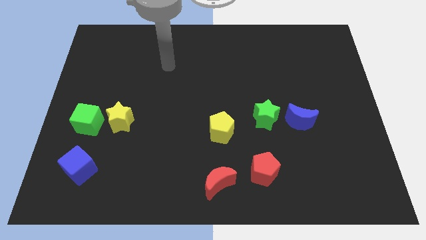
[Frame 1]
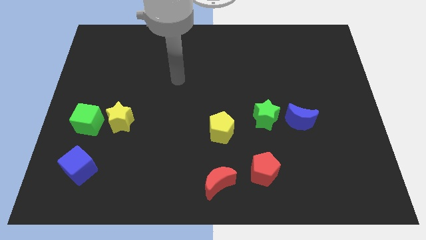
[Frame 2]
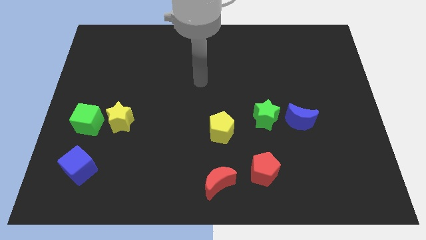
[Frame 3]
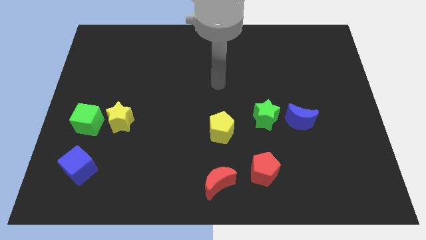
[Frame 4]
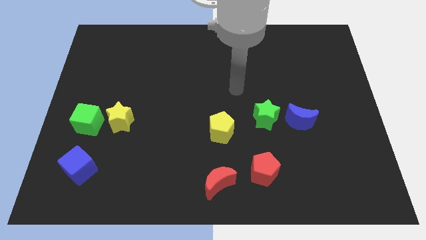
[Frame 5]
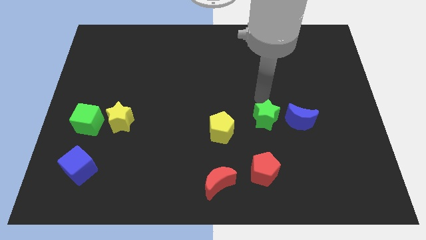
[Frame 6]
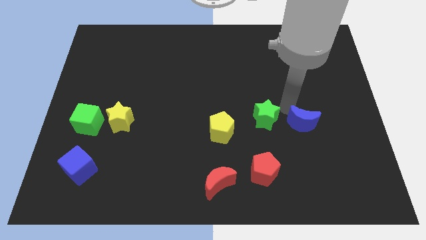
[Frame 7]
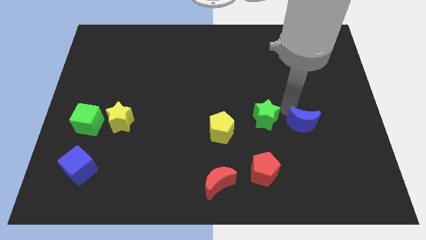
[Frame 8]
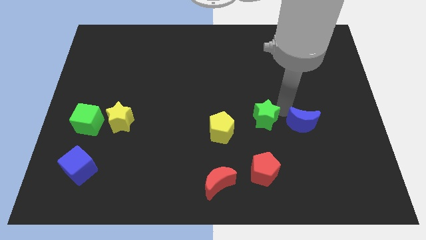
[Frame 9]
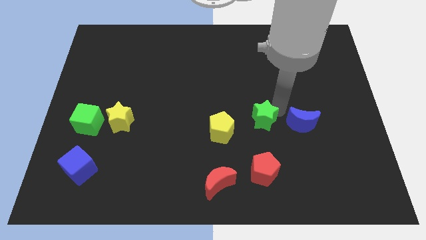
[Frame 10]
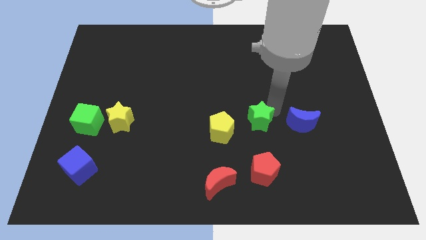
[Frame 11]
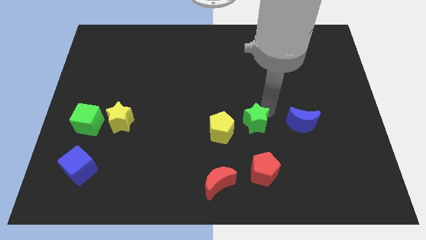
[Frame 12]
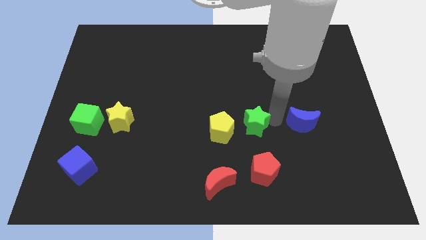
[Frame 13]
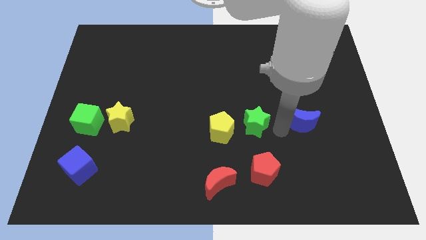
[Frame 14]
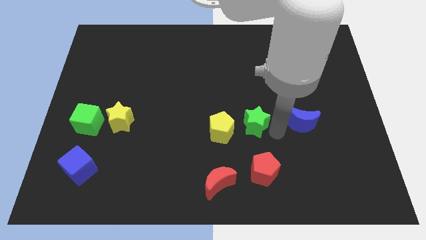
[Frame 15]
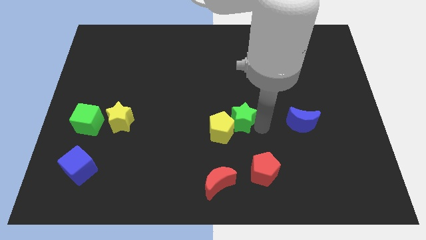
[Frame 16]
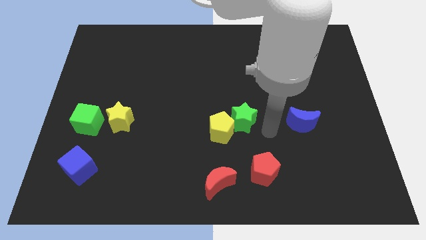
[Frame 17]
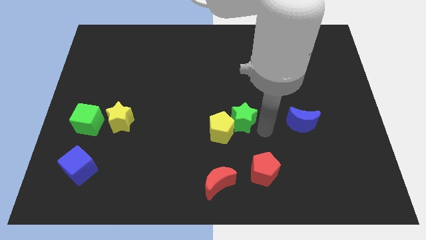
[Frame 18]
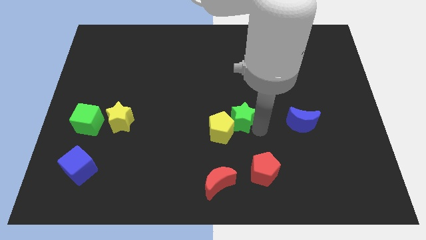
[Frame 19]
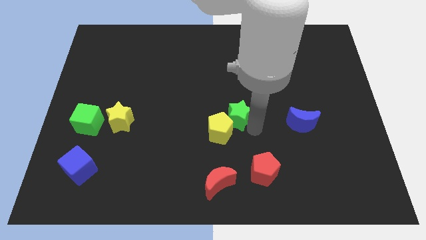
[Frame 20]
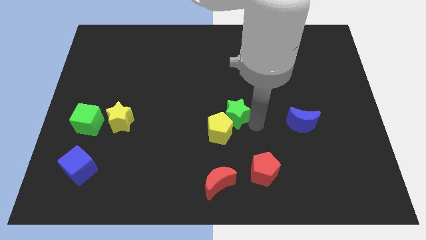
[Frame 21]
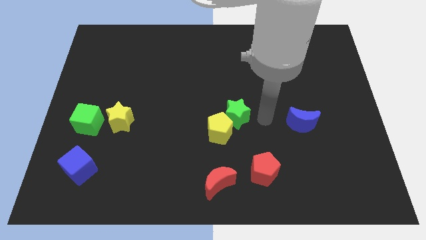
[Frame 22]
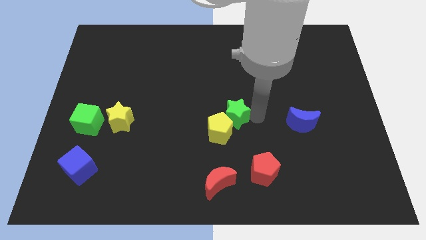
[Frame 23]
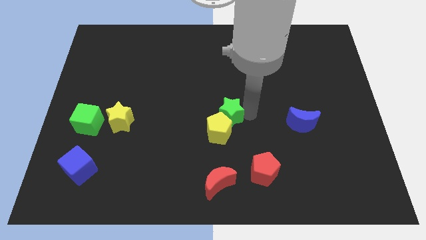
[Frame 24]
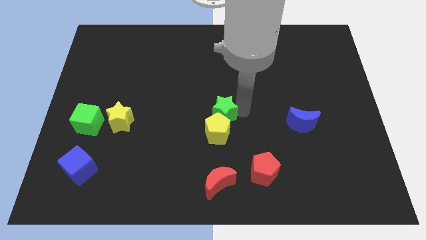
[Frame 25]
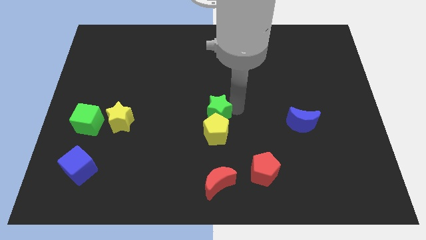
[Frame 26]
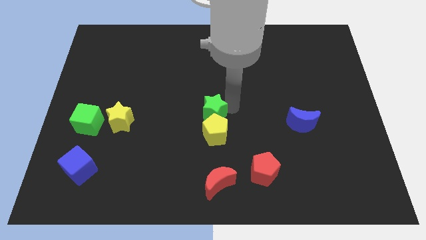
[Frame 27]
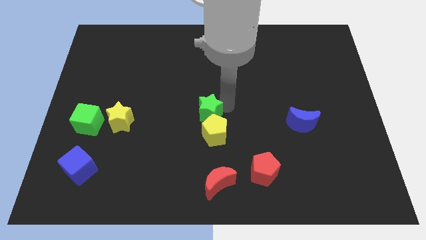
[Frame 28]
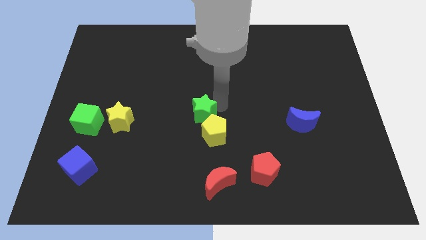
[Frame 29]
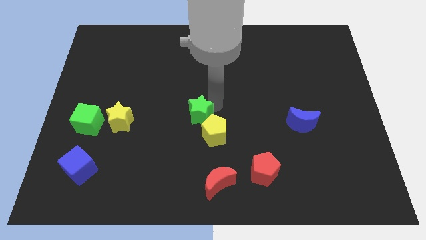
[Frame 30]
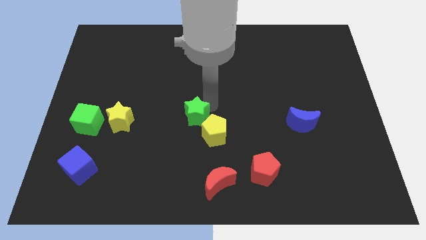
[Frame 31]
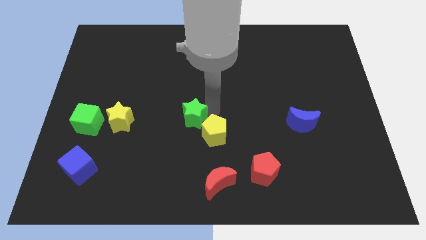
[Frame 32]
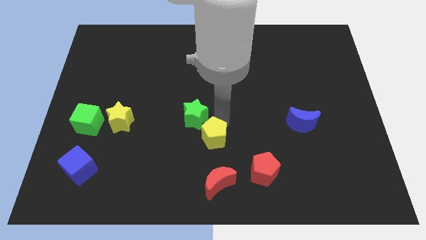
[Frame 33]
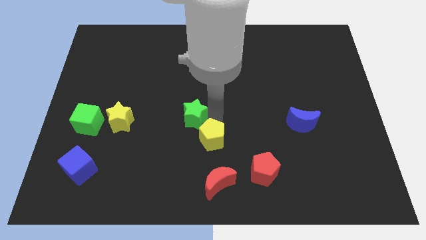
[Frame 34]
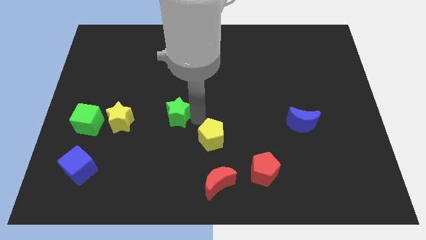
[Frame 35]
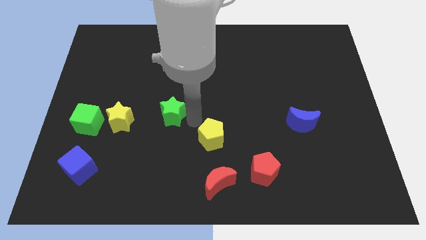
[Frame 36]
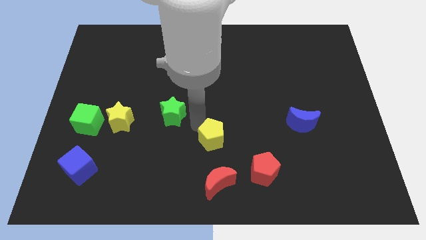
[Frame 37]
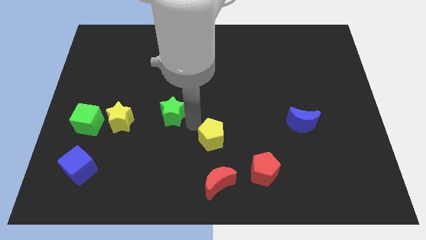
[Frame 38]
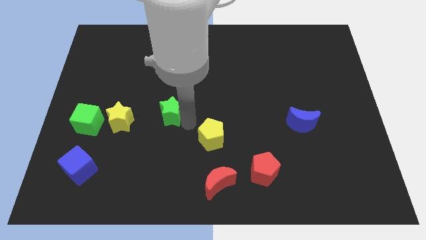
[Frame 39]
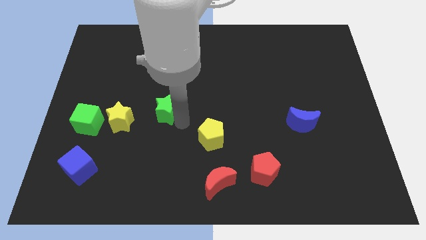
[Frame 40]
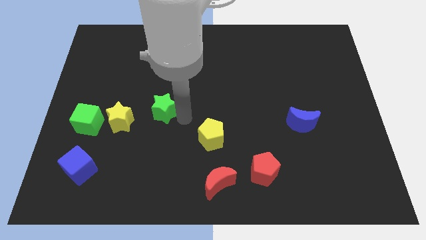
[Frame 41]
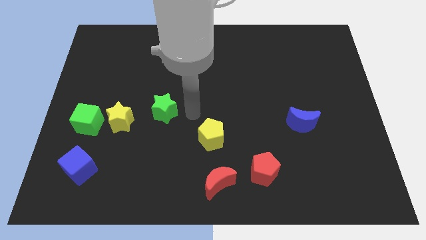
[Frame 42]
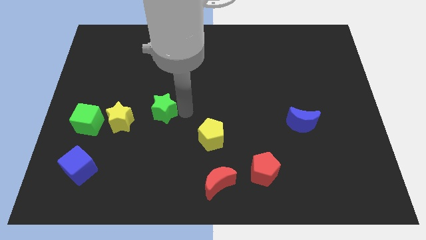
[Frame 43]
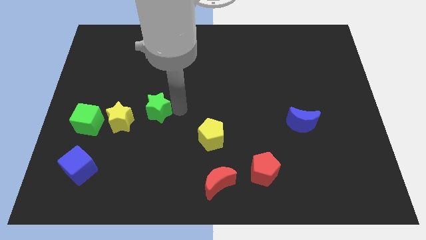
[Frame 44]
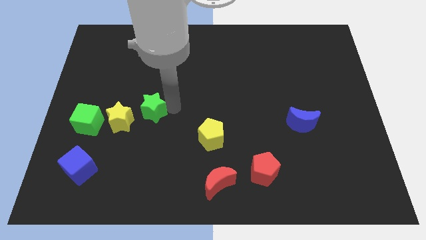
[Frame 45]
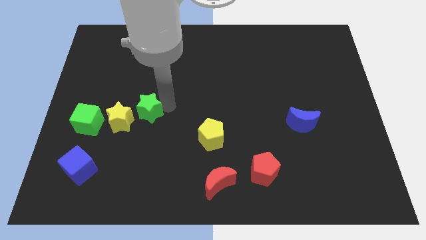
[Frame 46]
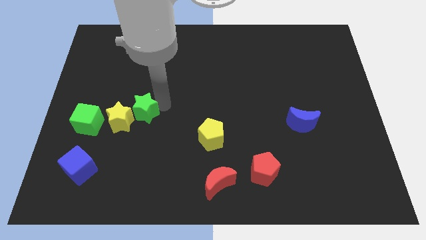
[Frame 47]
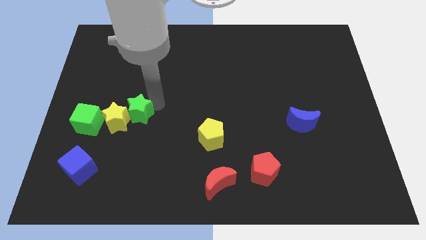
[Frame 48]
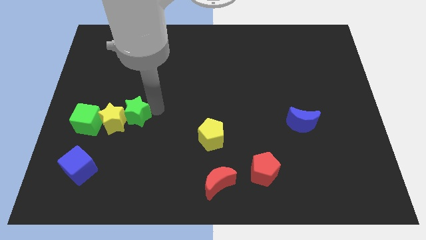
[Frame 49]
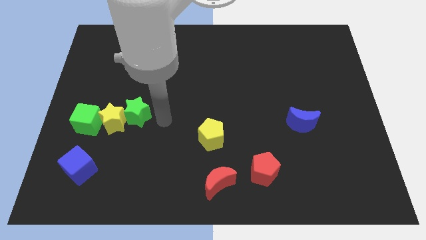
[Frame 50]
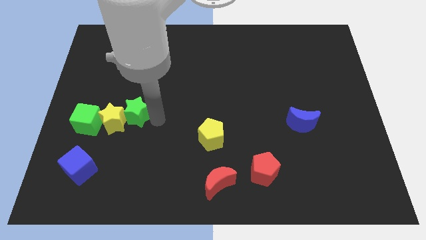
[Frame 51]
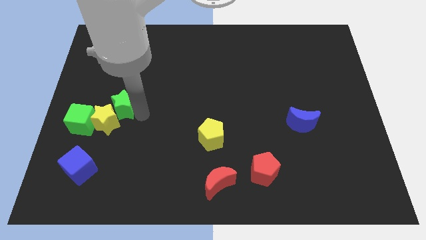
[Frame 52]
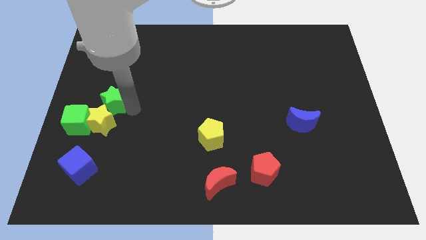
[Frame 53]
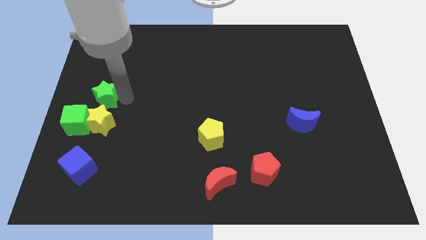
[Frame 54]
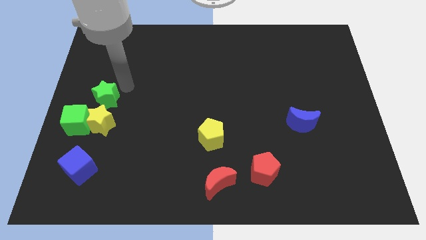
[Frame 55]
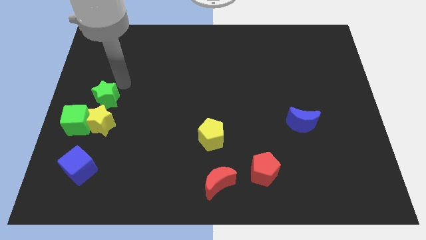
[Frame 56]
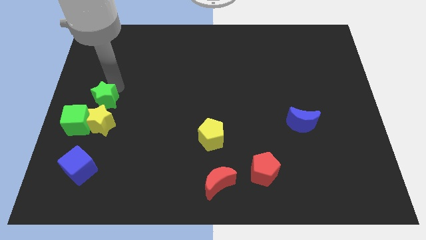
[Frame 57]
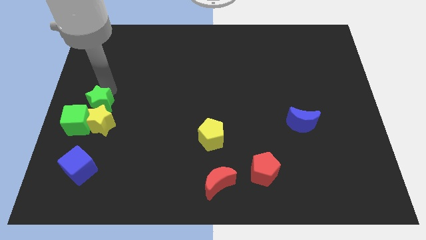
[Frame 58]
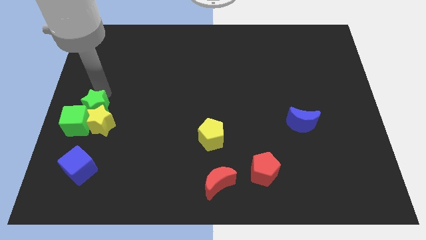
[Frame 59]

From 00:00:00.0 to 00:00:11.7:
slide the green star next to the green cube

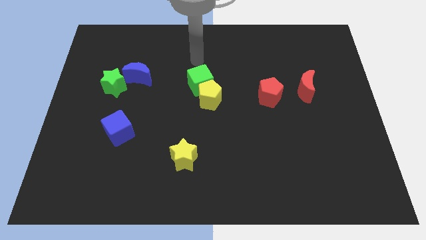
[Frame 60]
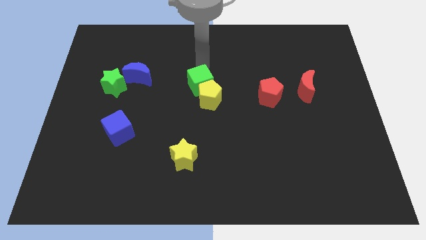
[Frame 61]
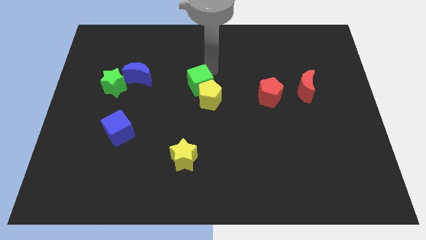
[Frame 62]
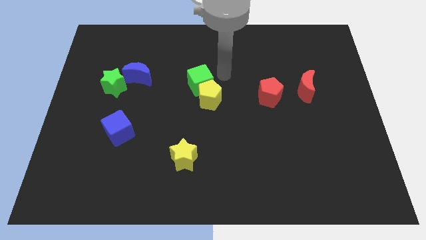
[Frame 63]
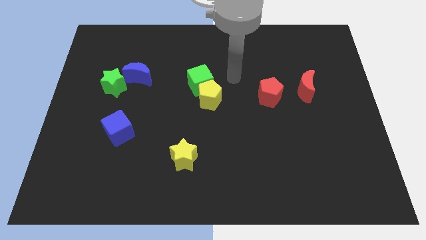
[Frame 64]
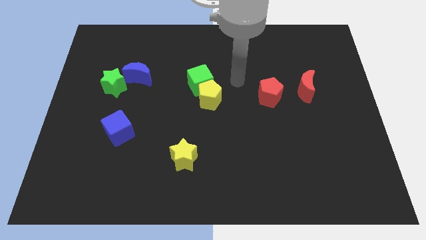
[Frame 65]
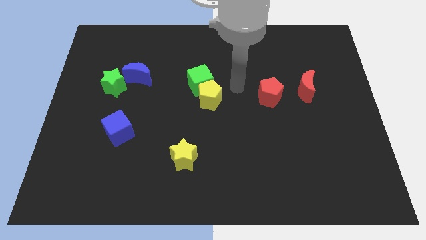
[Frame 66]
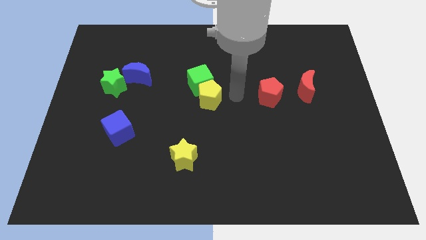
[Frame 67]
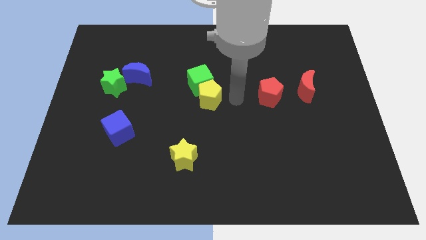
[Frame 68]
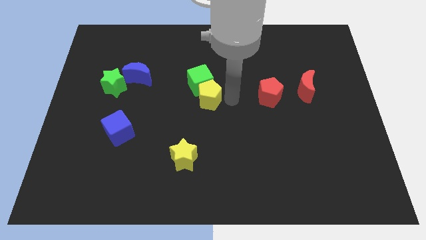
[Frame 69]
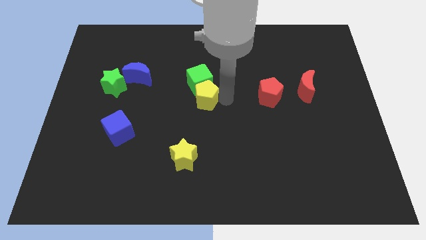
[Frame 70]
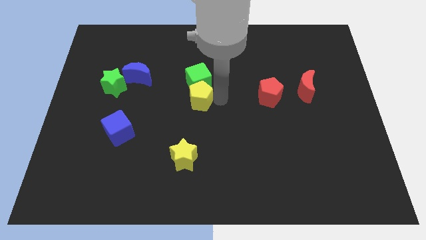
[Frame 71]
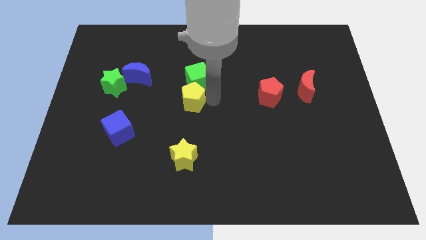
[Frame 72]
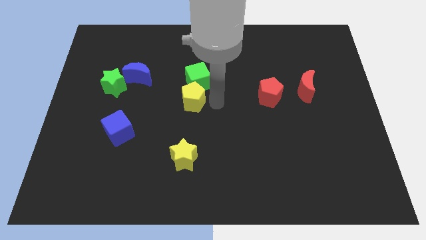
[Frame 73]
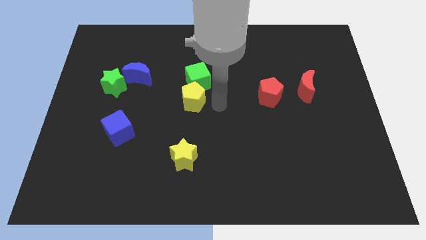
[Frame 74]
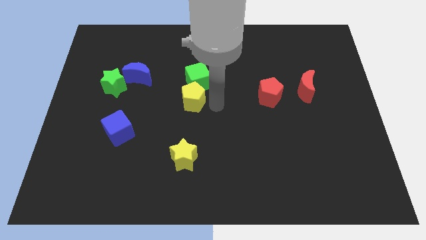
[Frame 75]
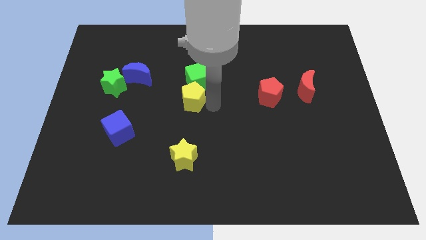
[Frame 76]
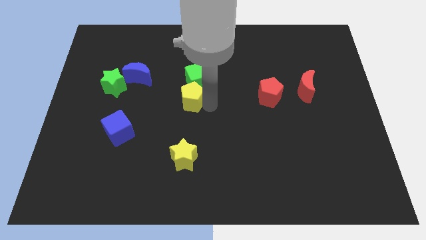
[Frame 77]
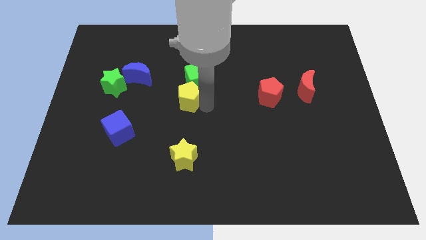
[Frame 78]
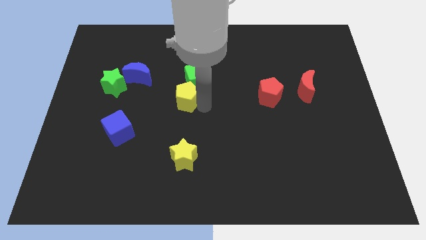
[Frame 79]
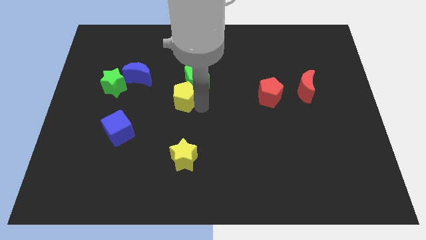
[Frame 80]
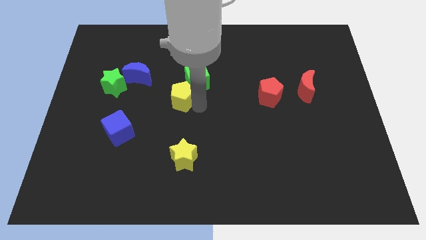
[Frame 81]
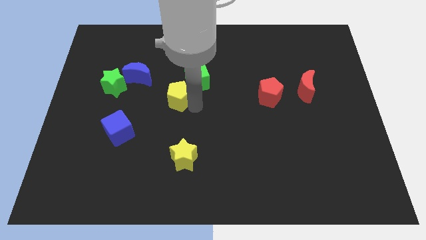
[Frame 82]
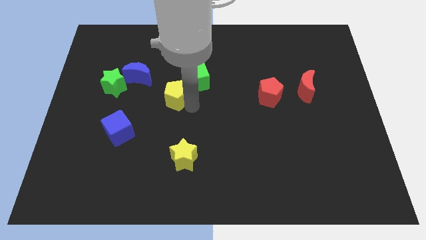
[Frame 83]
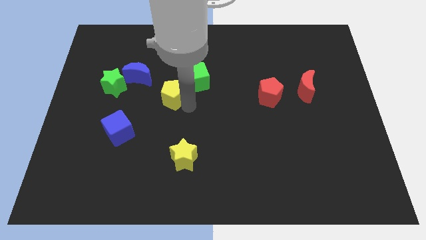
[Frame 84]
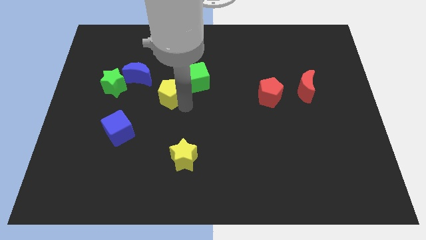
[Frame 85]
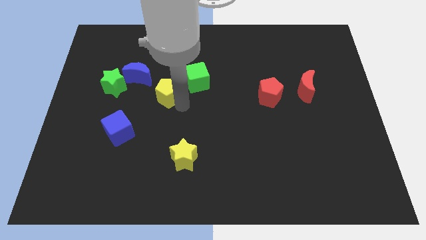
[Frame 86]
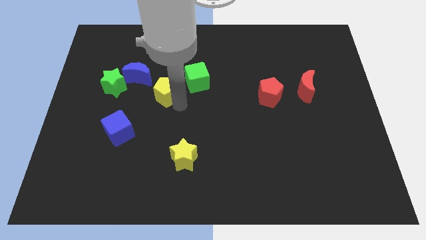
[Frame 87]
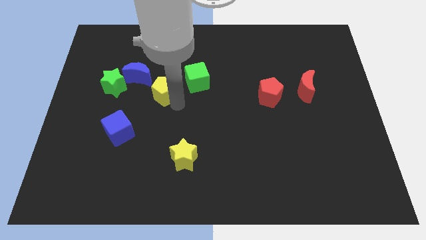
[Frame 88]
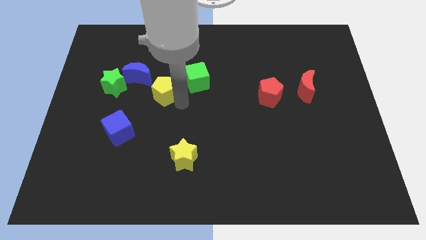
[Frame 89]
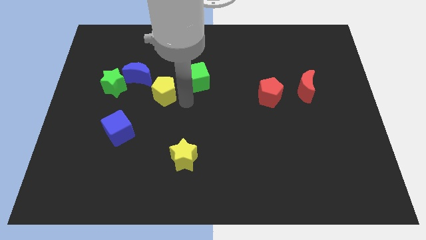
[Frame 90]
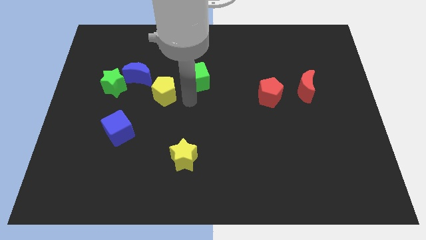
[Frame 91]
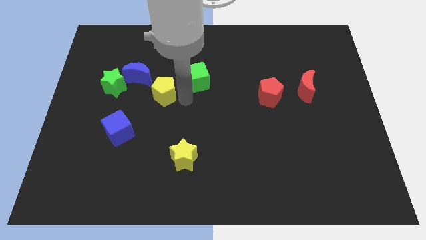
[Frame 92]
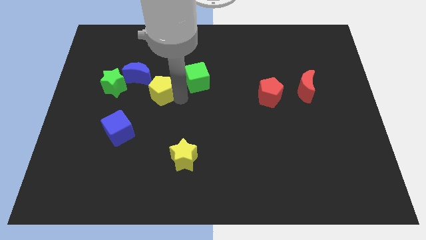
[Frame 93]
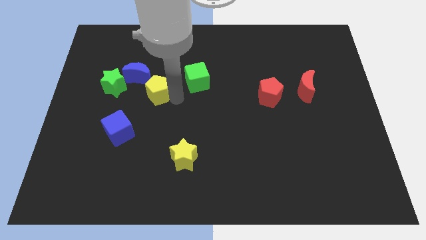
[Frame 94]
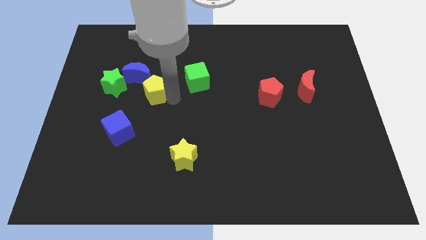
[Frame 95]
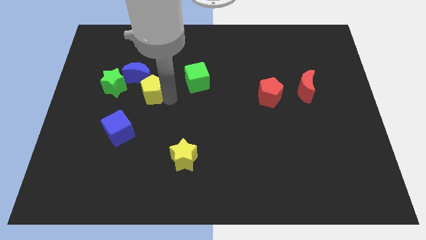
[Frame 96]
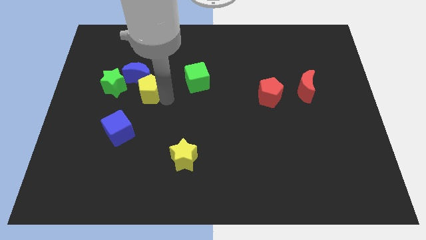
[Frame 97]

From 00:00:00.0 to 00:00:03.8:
put the yellow pentagon towards the blue moon
